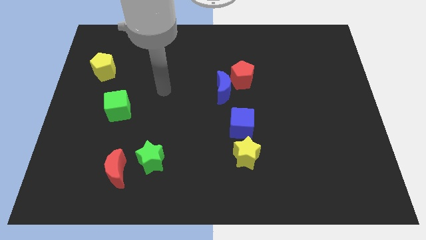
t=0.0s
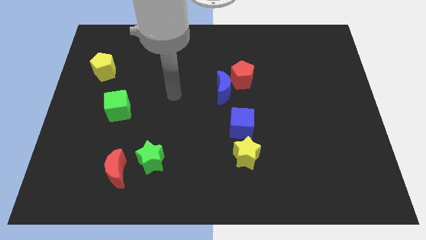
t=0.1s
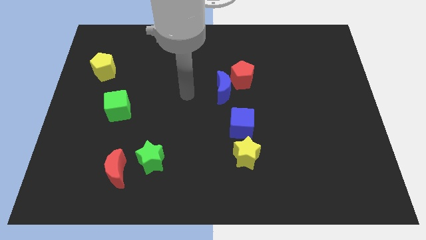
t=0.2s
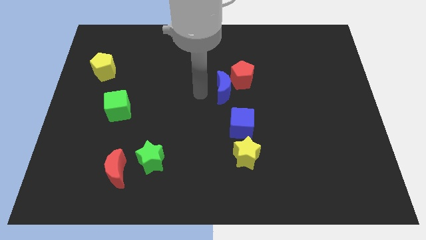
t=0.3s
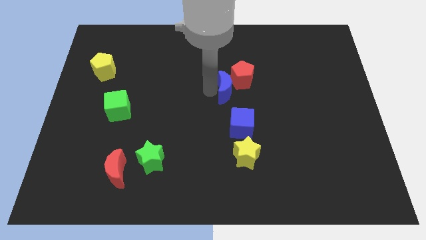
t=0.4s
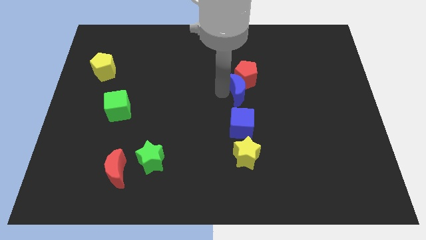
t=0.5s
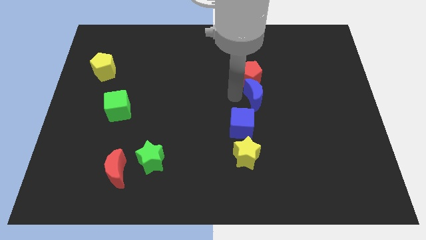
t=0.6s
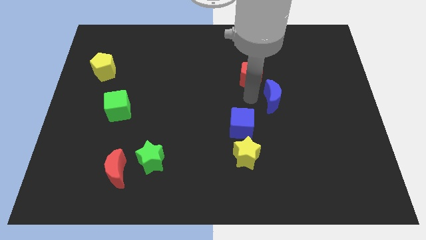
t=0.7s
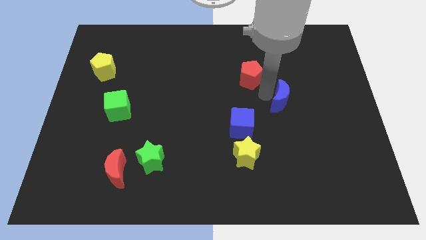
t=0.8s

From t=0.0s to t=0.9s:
pull the red pentagon apart from the blue moon

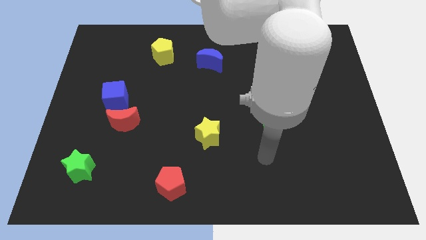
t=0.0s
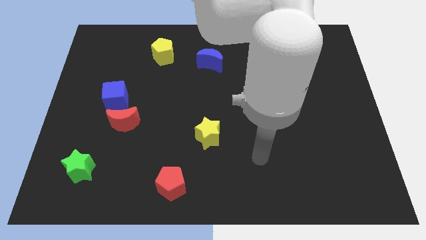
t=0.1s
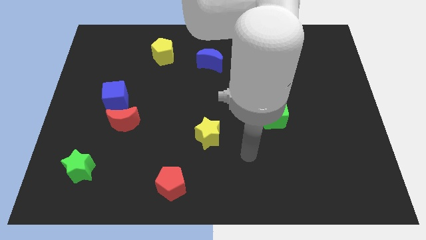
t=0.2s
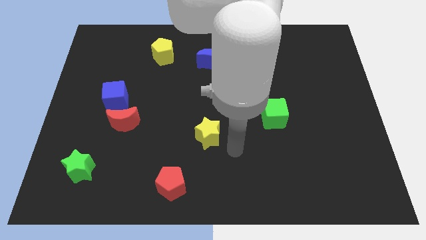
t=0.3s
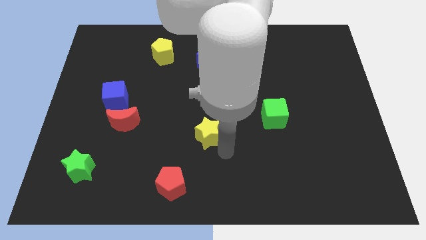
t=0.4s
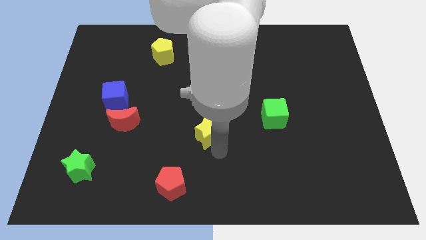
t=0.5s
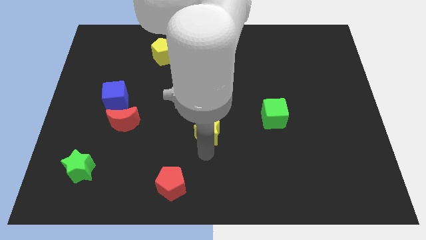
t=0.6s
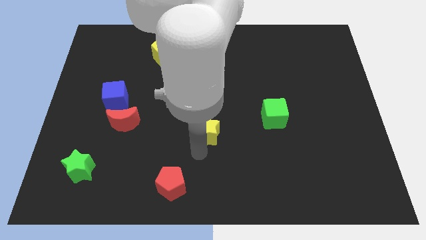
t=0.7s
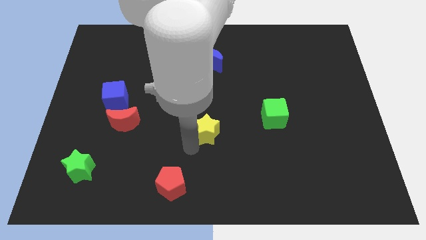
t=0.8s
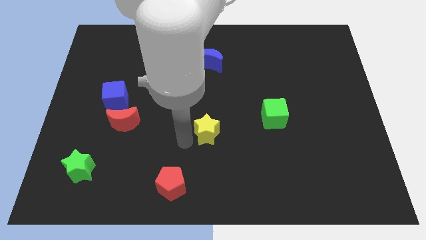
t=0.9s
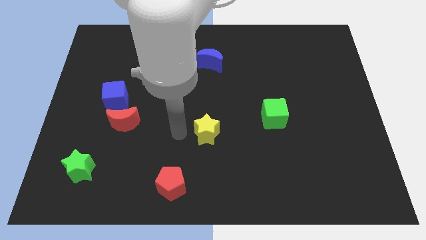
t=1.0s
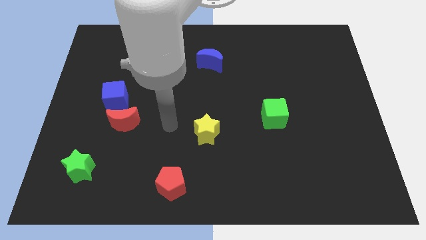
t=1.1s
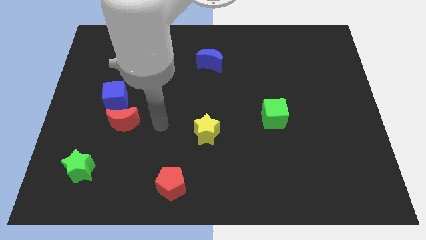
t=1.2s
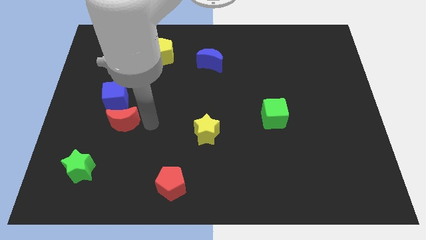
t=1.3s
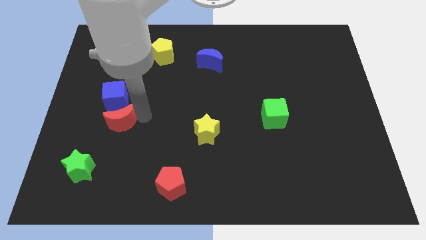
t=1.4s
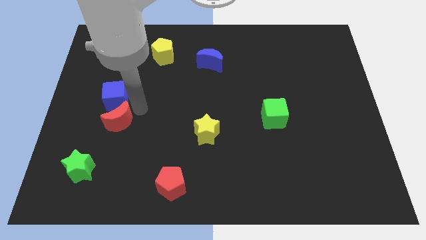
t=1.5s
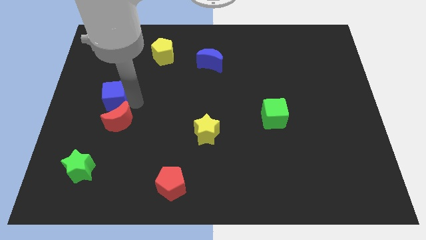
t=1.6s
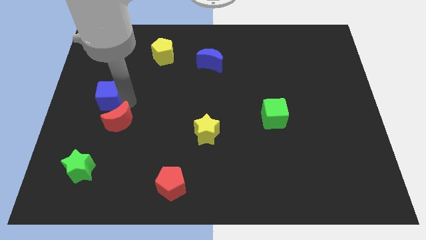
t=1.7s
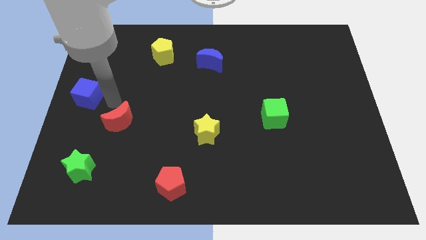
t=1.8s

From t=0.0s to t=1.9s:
pull the red moon apart from the blue cube

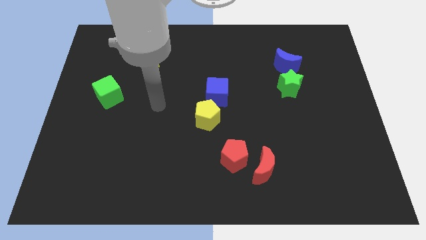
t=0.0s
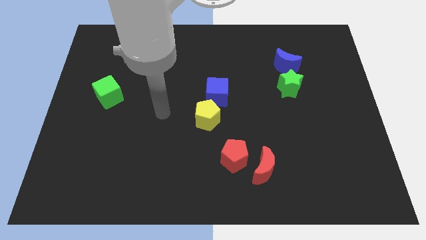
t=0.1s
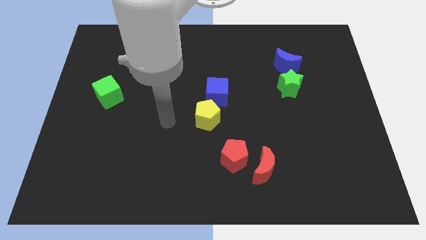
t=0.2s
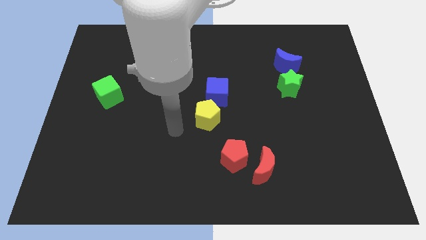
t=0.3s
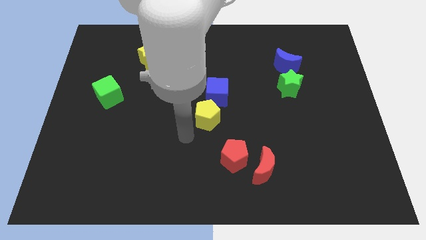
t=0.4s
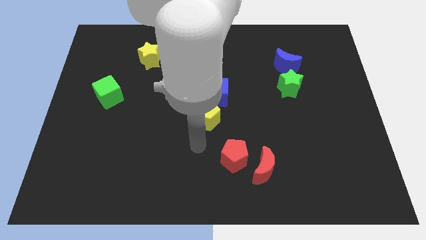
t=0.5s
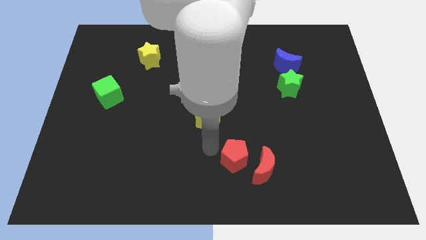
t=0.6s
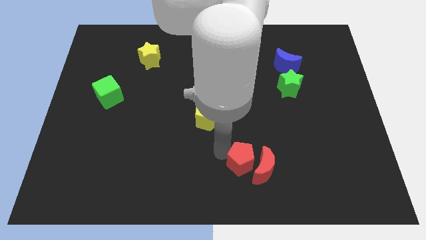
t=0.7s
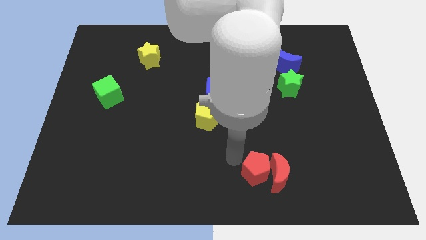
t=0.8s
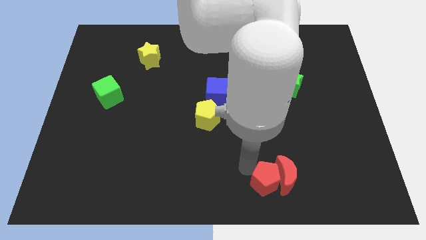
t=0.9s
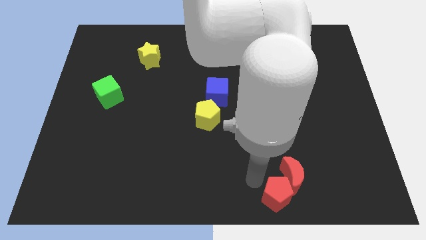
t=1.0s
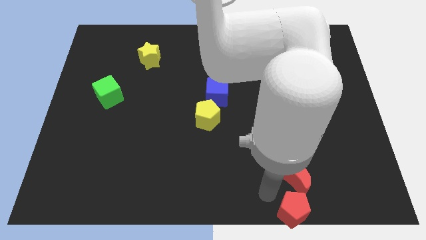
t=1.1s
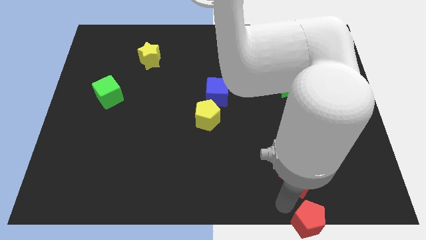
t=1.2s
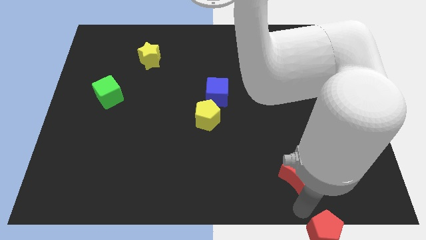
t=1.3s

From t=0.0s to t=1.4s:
move the red moon away from the red pentagon

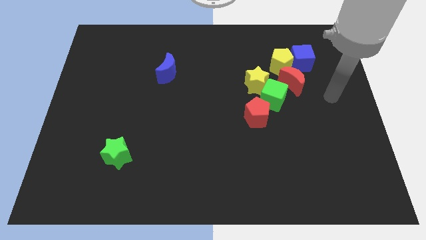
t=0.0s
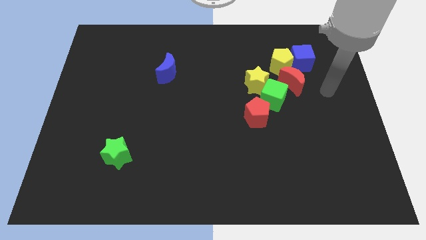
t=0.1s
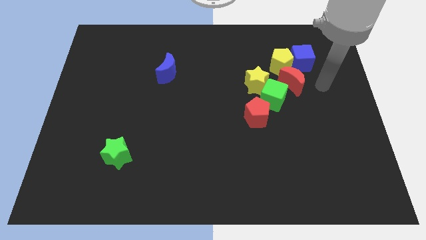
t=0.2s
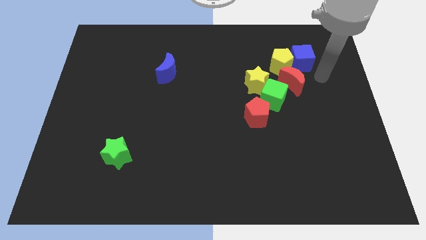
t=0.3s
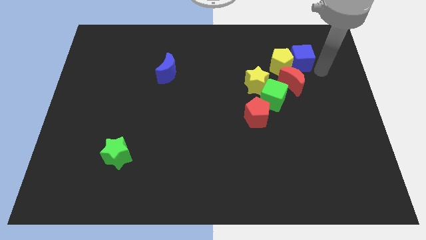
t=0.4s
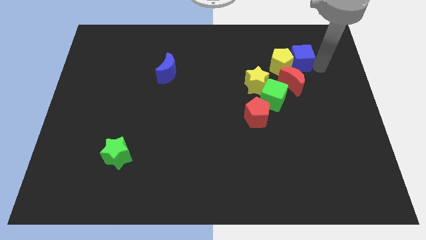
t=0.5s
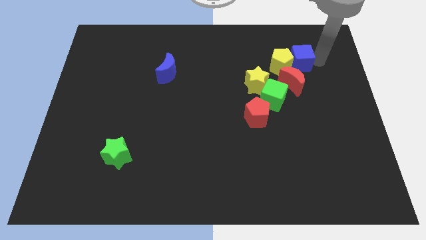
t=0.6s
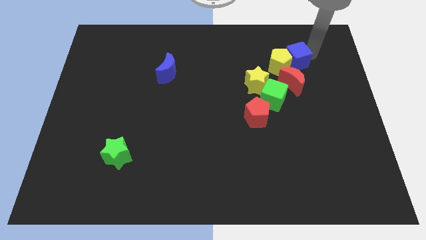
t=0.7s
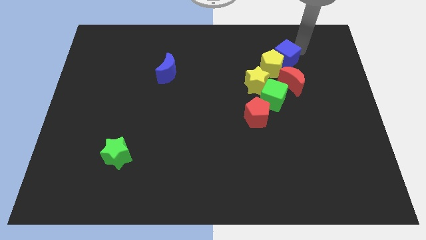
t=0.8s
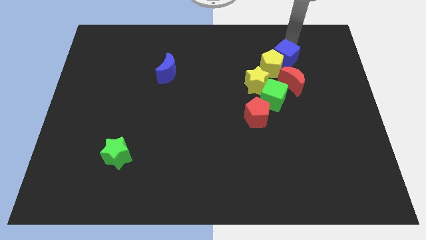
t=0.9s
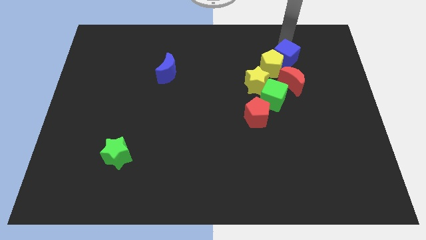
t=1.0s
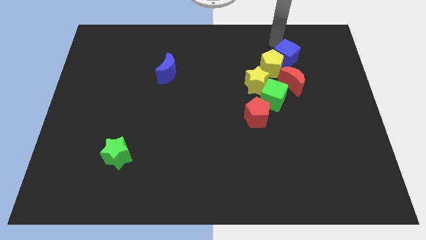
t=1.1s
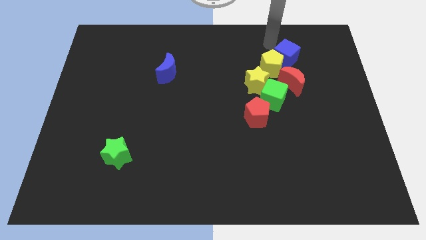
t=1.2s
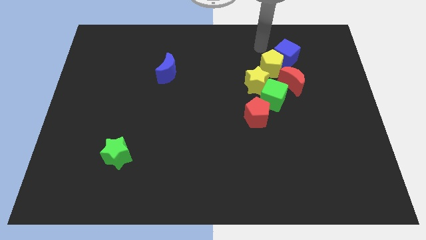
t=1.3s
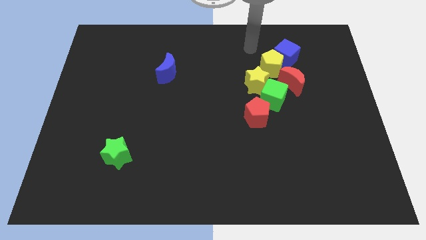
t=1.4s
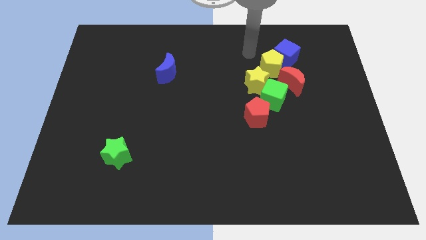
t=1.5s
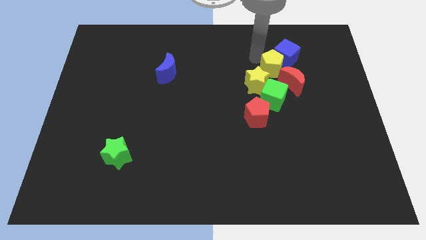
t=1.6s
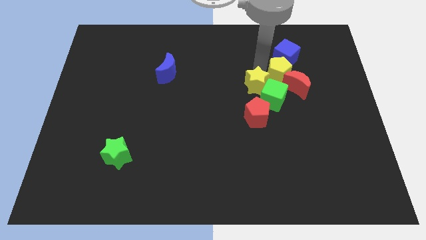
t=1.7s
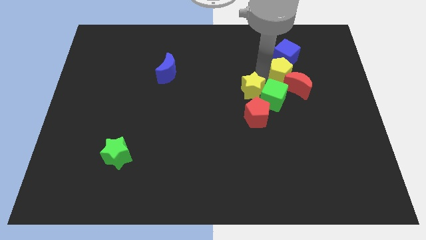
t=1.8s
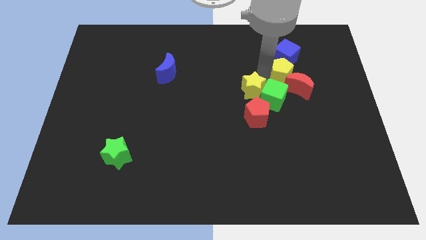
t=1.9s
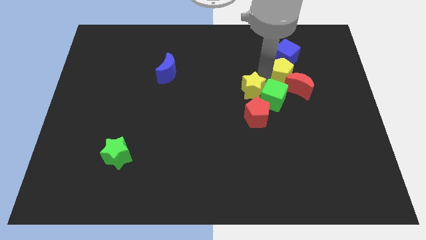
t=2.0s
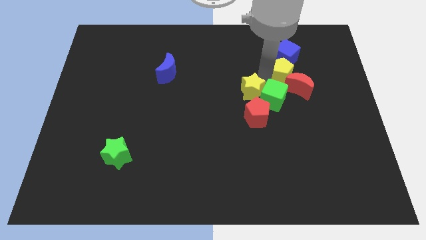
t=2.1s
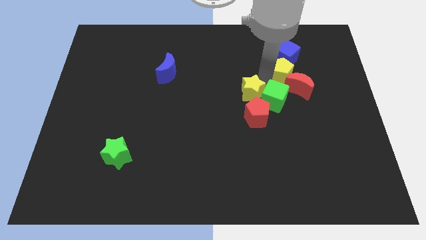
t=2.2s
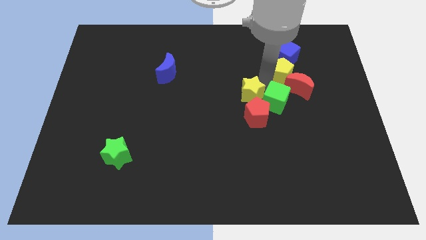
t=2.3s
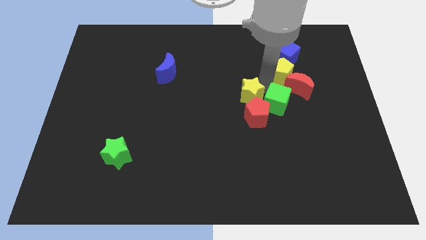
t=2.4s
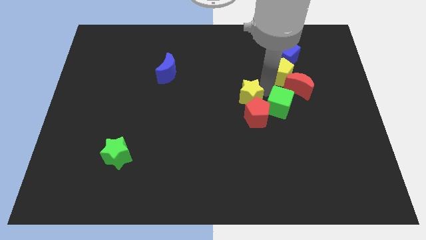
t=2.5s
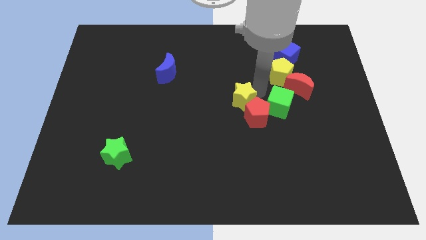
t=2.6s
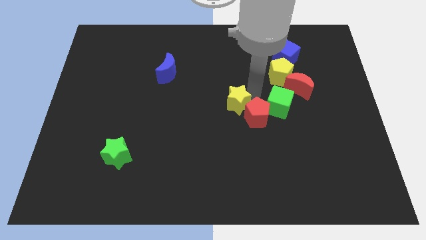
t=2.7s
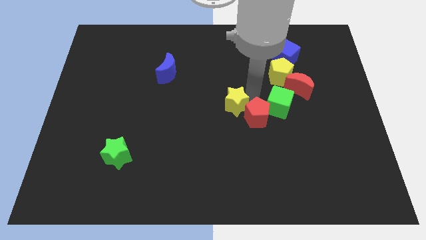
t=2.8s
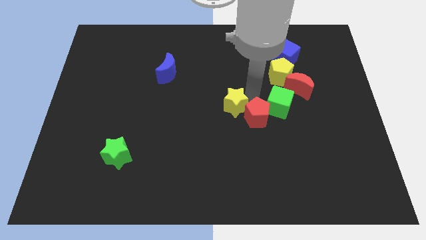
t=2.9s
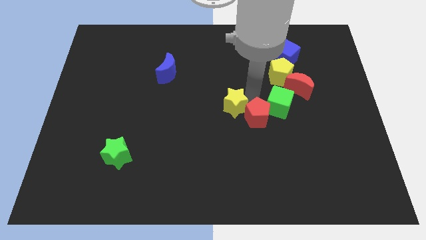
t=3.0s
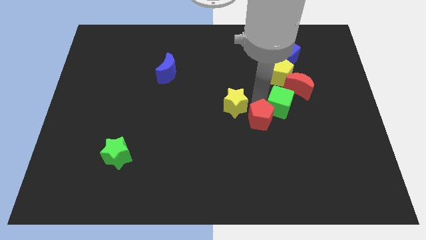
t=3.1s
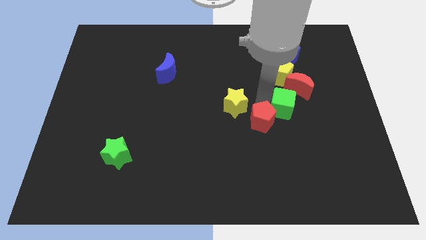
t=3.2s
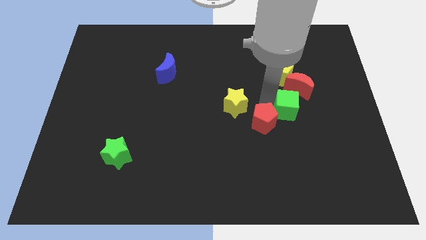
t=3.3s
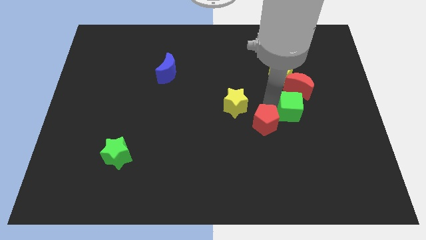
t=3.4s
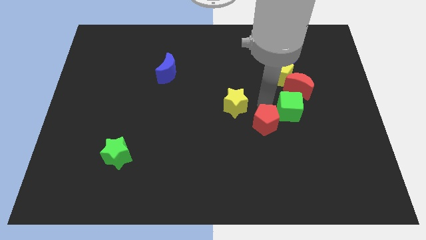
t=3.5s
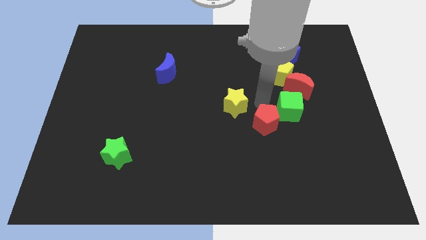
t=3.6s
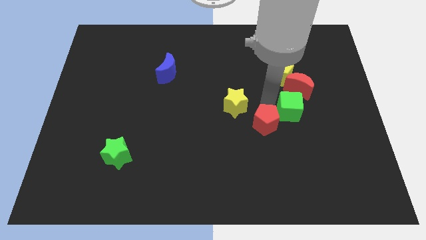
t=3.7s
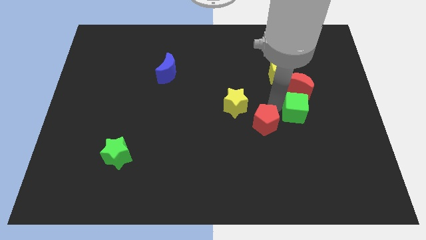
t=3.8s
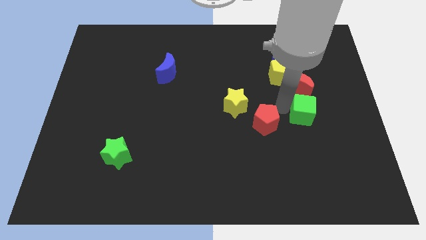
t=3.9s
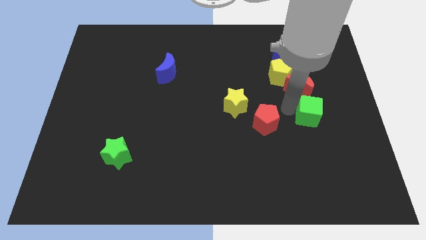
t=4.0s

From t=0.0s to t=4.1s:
move the green cube away from the yellow star, red pentagon, and red moon

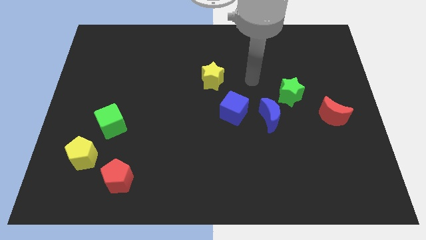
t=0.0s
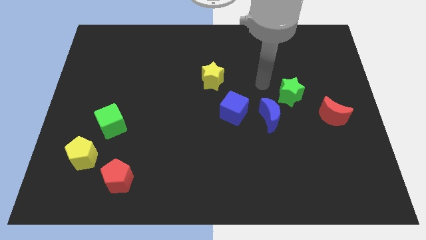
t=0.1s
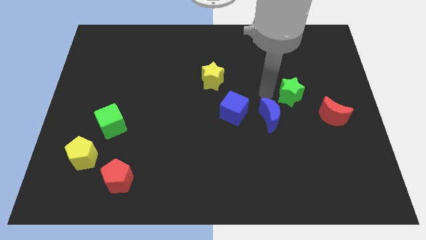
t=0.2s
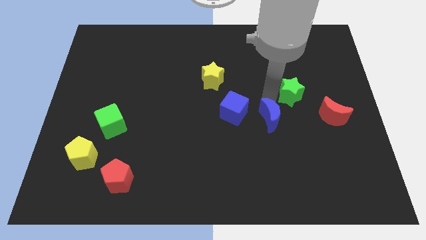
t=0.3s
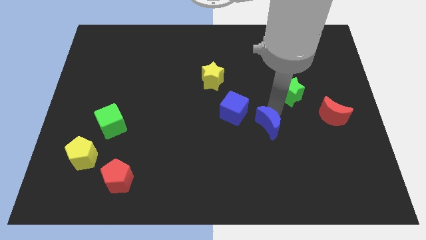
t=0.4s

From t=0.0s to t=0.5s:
move the green star away from the blue moon

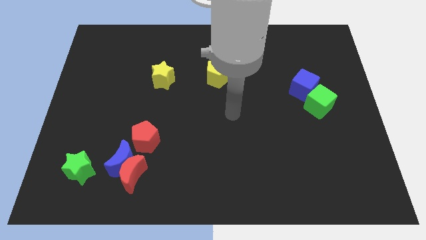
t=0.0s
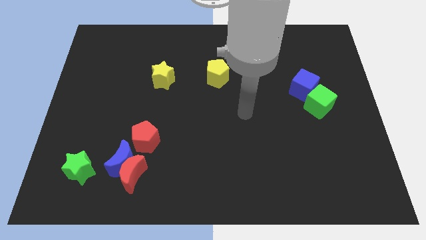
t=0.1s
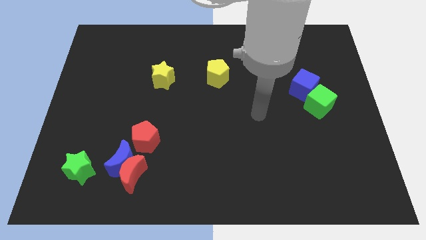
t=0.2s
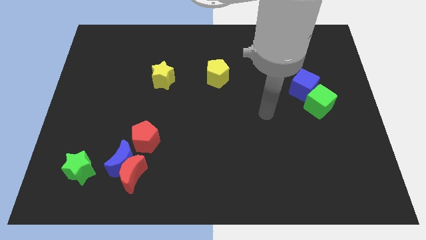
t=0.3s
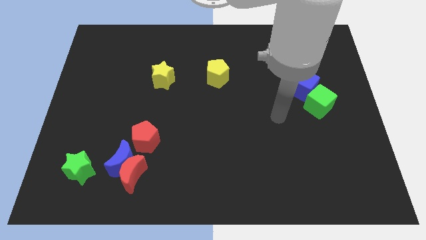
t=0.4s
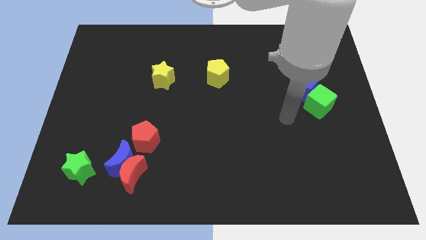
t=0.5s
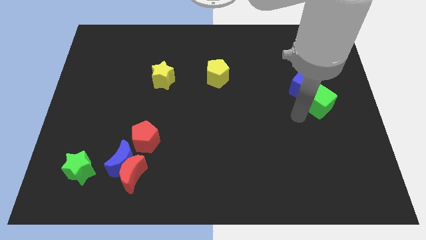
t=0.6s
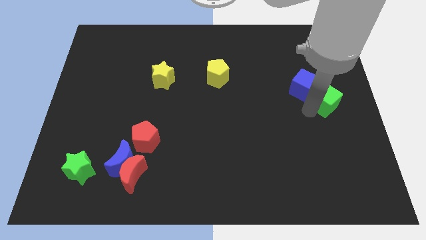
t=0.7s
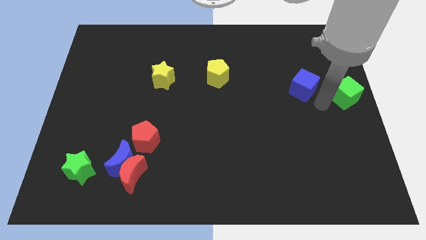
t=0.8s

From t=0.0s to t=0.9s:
separate the blue cube from the green cube
